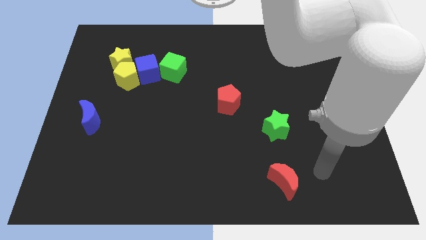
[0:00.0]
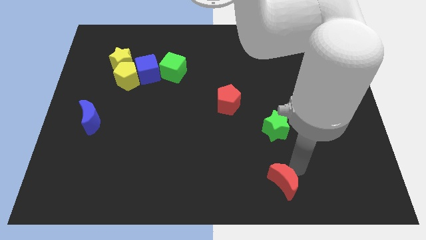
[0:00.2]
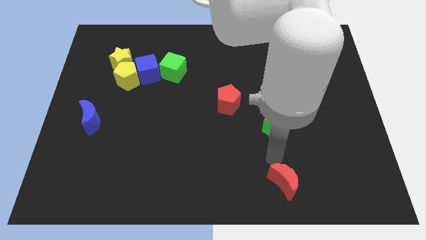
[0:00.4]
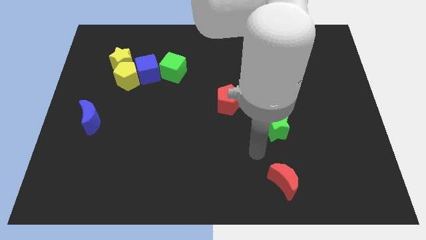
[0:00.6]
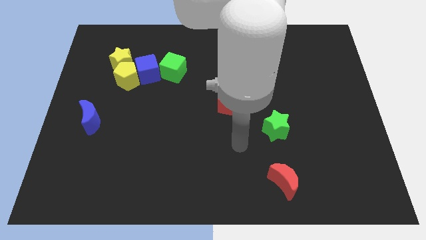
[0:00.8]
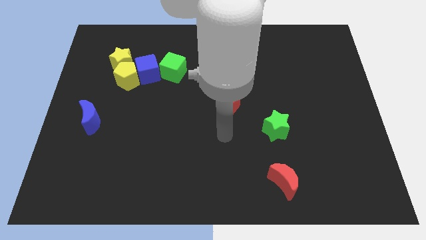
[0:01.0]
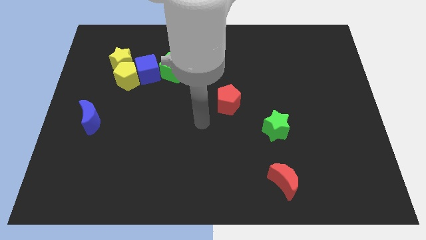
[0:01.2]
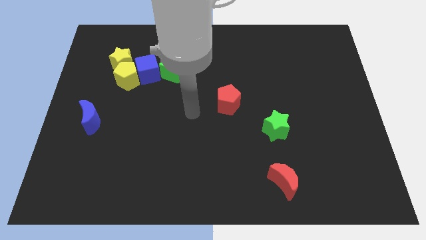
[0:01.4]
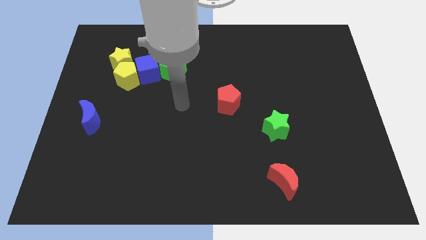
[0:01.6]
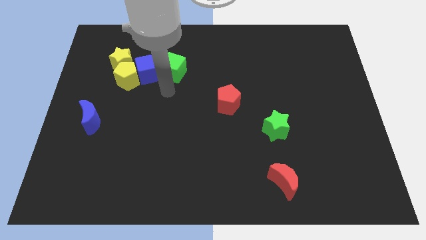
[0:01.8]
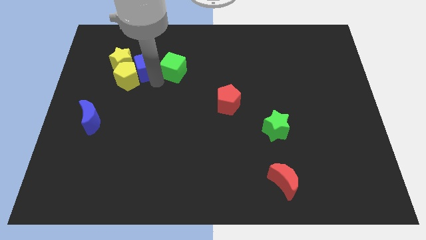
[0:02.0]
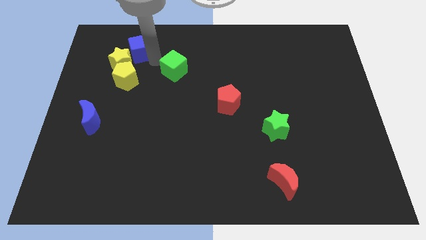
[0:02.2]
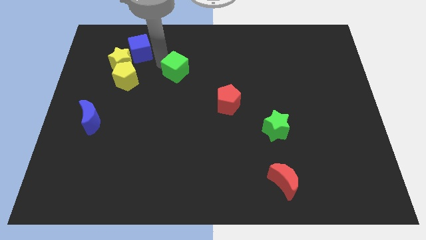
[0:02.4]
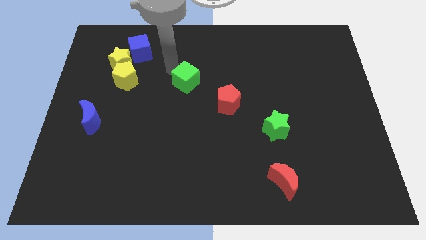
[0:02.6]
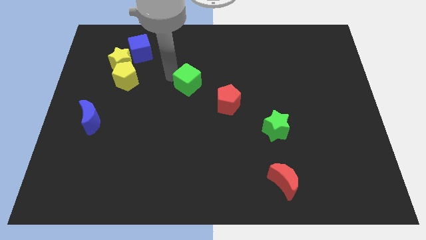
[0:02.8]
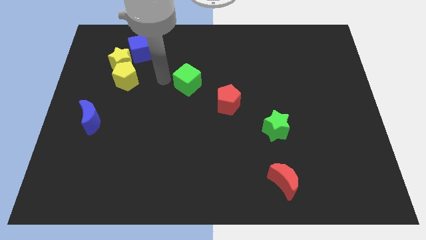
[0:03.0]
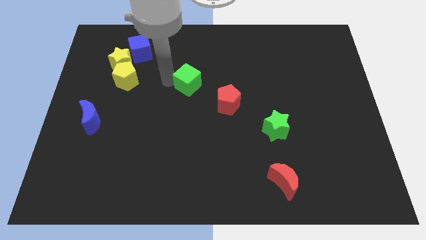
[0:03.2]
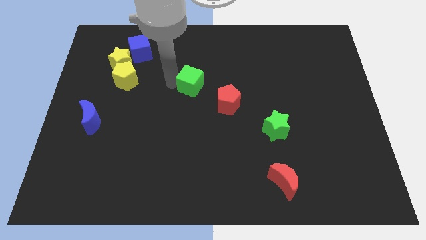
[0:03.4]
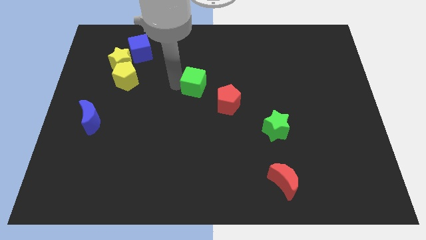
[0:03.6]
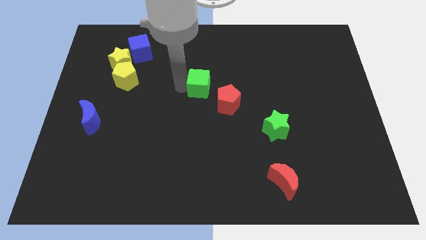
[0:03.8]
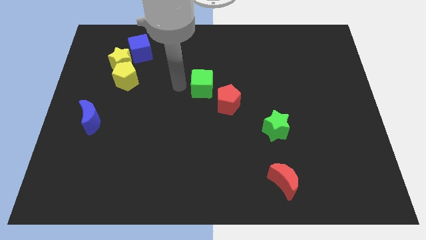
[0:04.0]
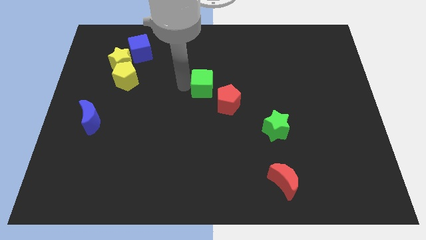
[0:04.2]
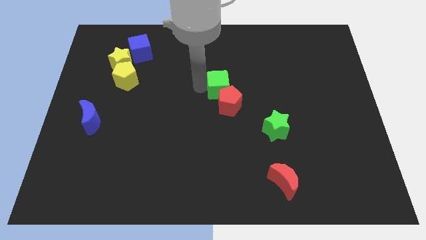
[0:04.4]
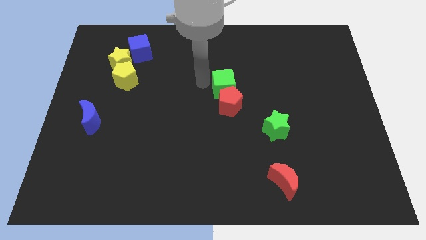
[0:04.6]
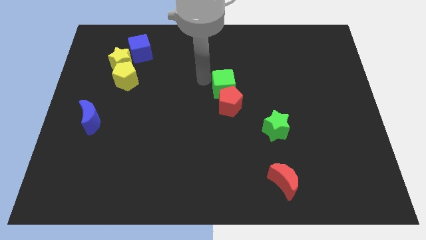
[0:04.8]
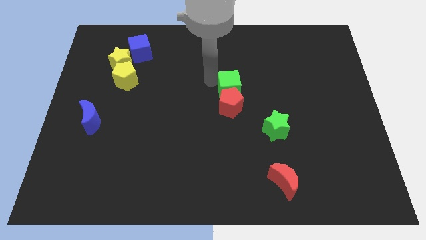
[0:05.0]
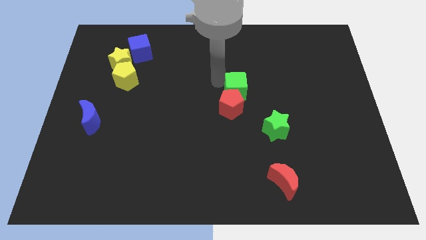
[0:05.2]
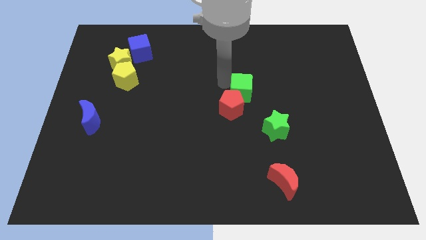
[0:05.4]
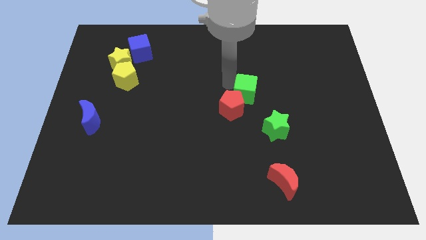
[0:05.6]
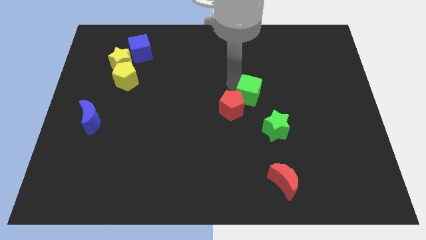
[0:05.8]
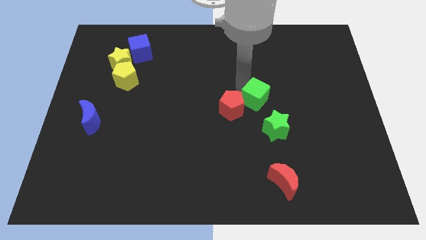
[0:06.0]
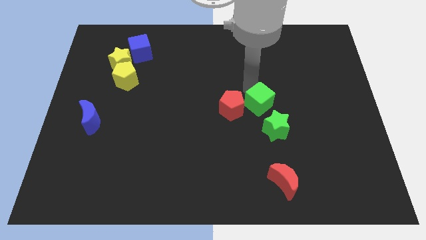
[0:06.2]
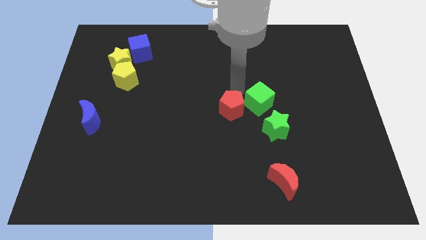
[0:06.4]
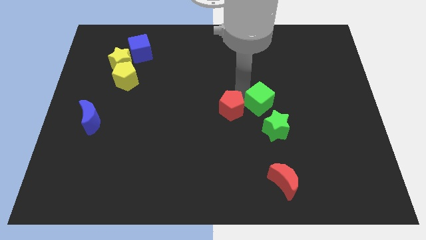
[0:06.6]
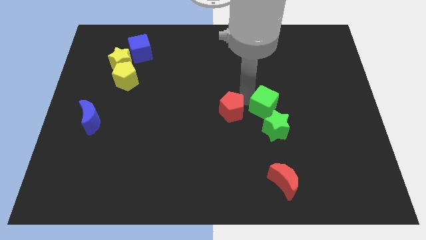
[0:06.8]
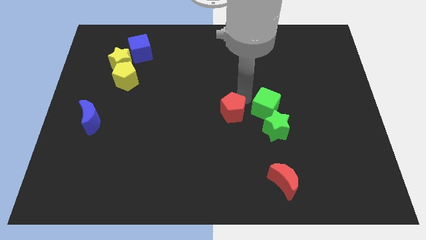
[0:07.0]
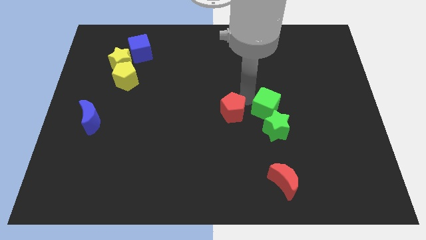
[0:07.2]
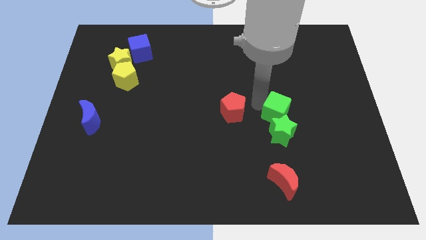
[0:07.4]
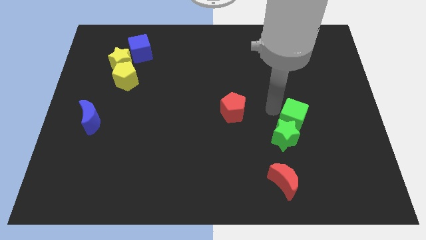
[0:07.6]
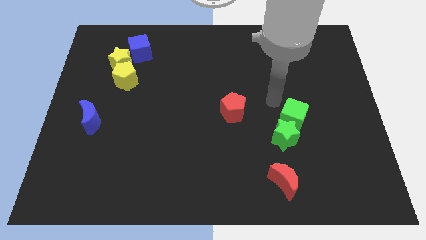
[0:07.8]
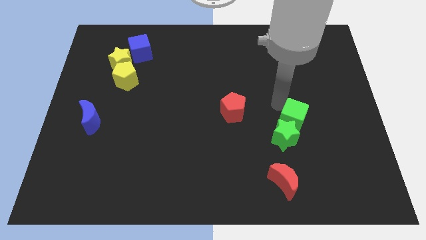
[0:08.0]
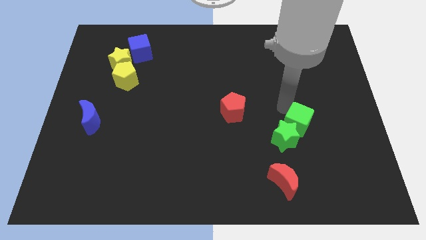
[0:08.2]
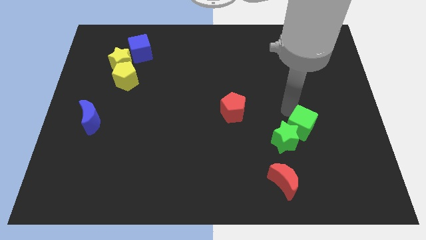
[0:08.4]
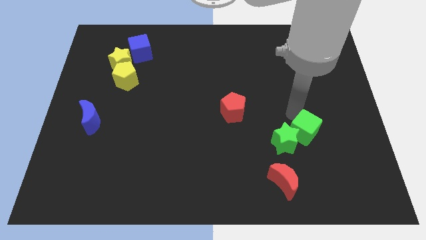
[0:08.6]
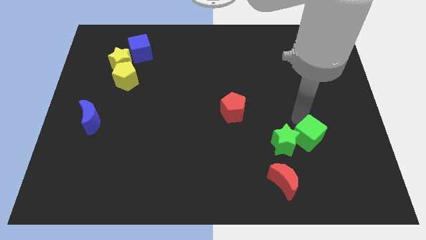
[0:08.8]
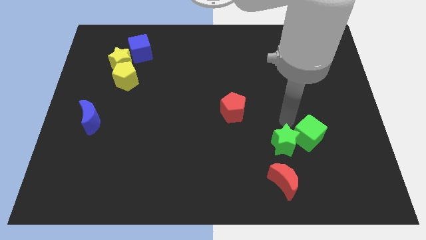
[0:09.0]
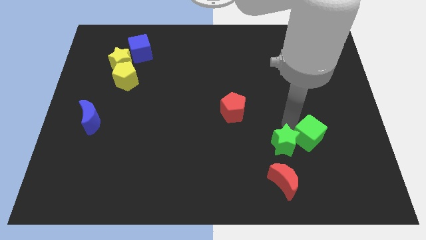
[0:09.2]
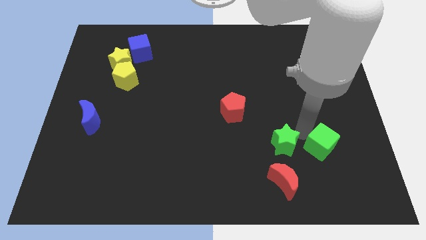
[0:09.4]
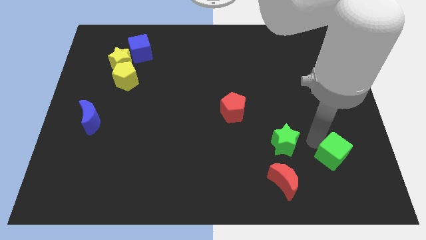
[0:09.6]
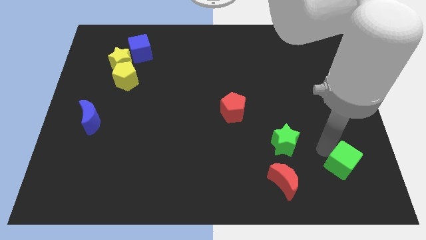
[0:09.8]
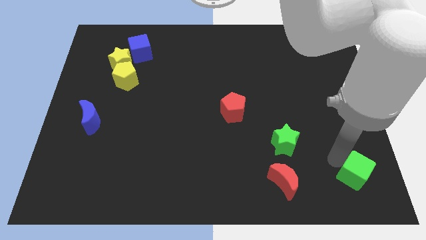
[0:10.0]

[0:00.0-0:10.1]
push the green cube to the lower right corner

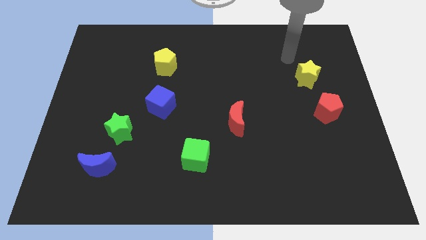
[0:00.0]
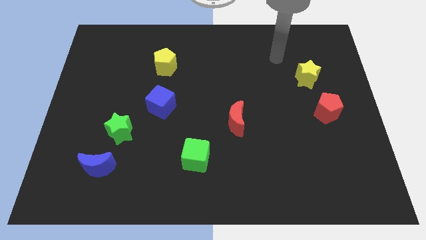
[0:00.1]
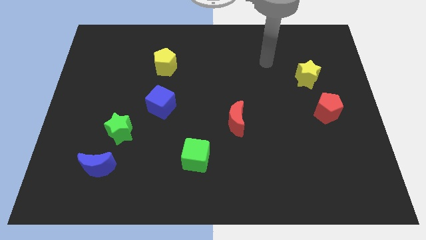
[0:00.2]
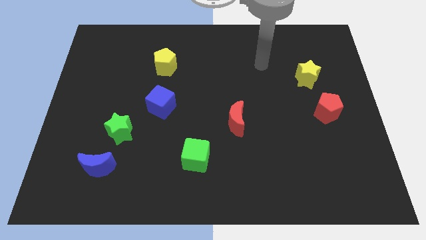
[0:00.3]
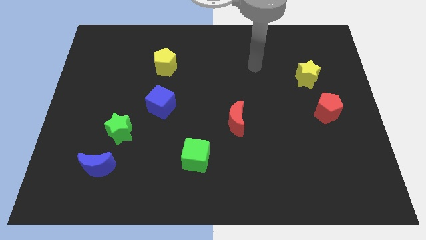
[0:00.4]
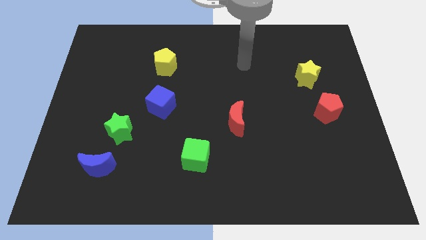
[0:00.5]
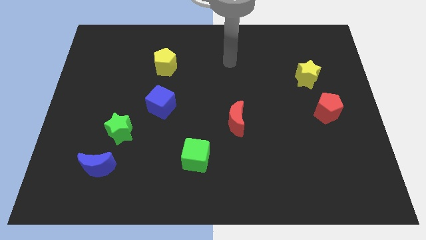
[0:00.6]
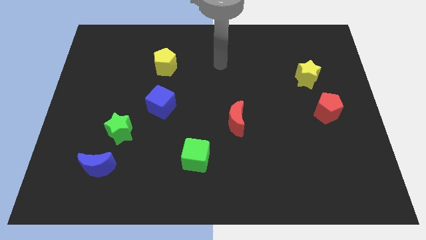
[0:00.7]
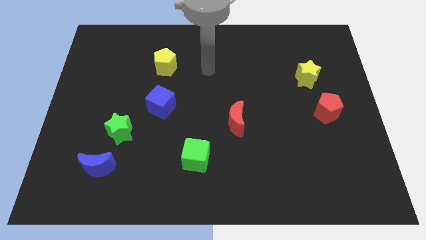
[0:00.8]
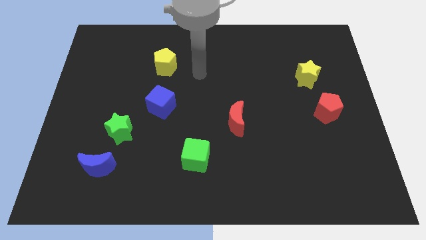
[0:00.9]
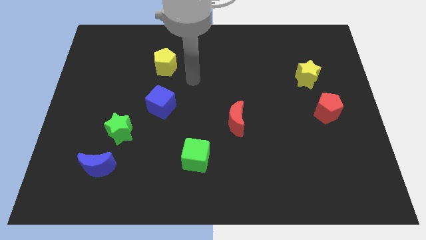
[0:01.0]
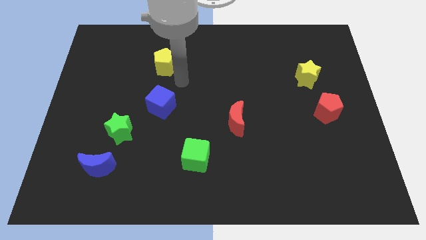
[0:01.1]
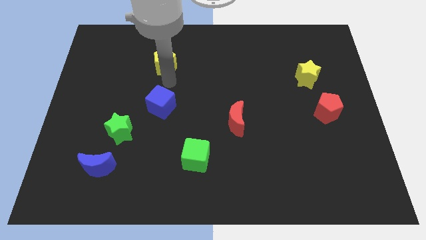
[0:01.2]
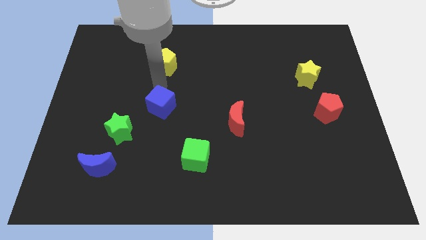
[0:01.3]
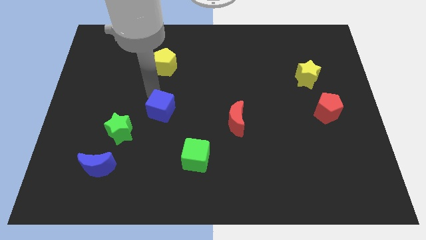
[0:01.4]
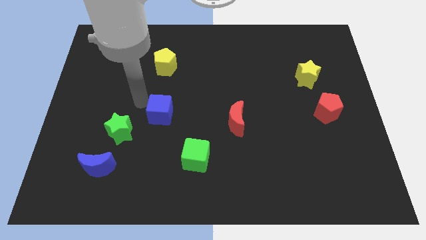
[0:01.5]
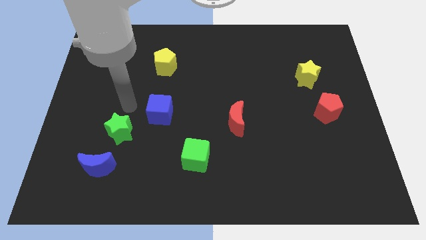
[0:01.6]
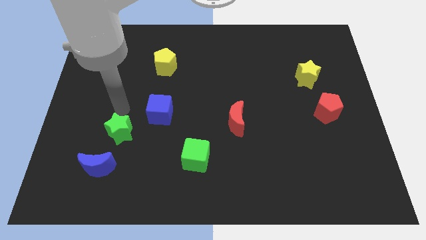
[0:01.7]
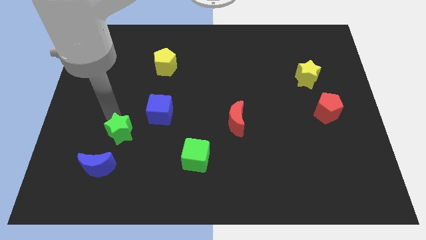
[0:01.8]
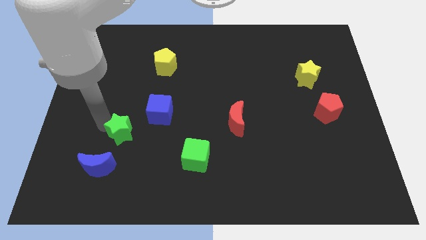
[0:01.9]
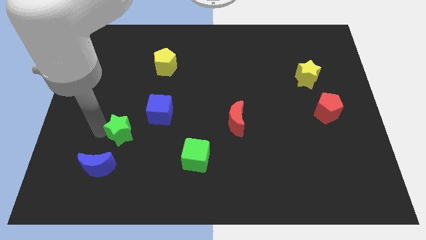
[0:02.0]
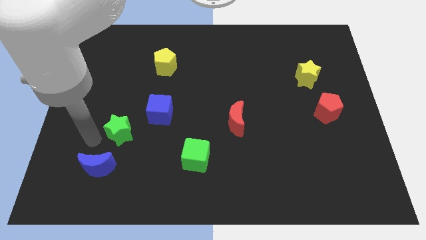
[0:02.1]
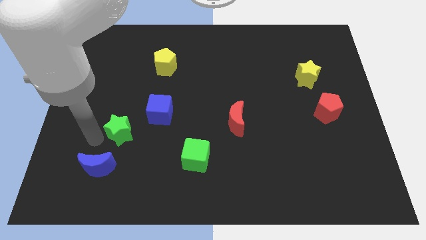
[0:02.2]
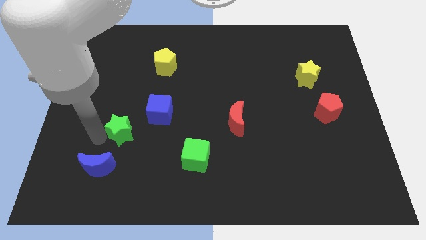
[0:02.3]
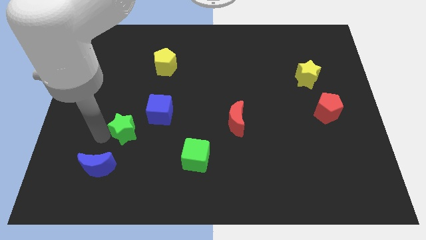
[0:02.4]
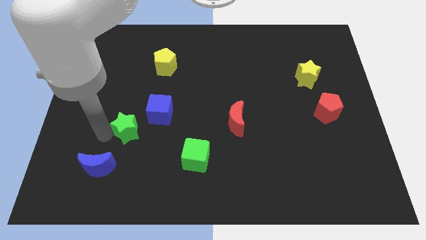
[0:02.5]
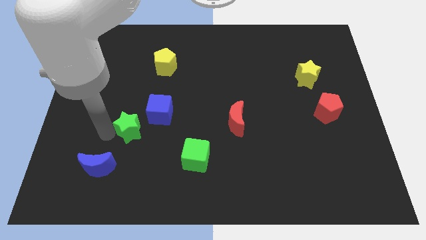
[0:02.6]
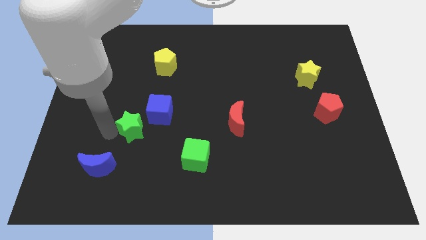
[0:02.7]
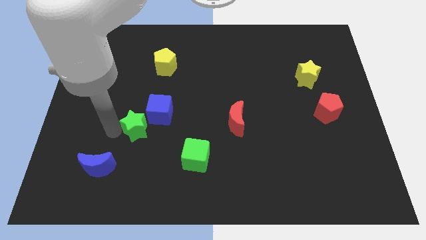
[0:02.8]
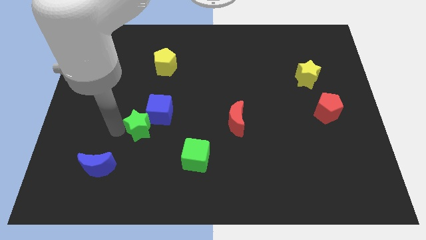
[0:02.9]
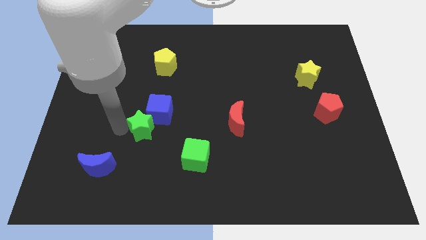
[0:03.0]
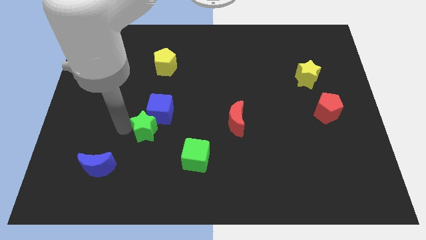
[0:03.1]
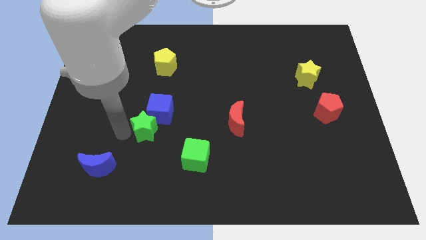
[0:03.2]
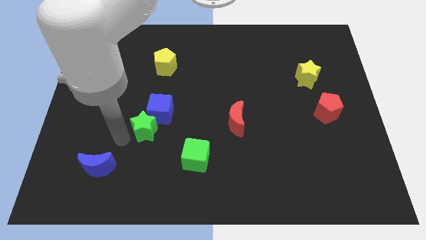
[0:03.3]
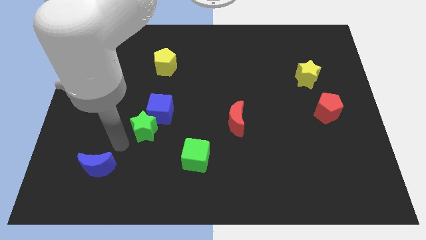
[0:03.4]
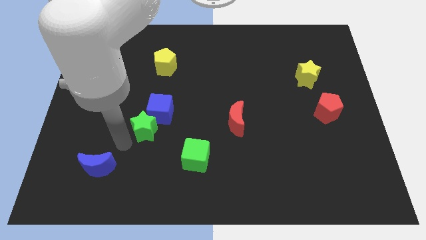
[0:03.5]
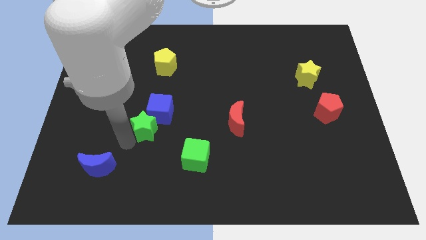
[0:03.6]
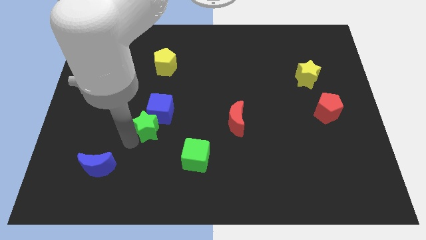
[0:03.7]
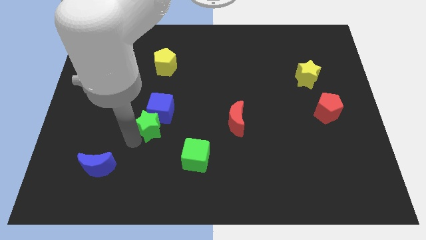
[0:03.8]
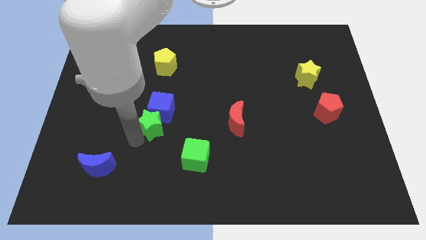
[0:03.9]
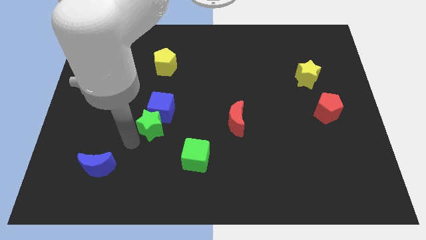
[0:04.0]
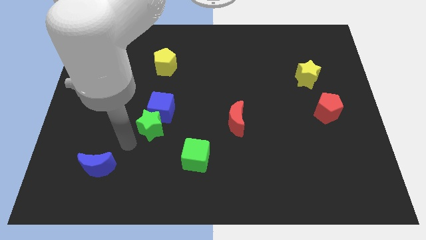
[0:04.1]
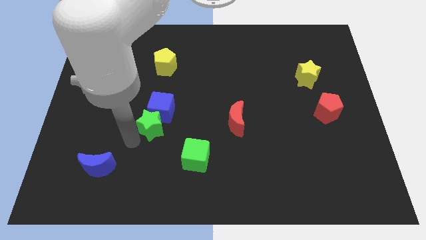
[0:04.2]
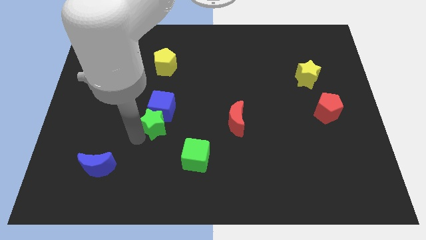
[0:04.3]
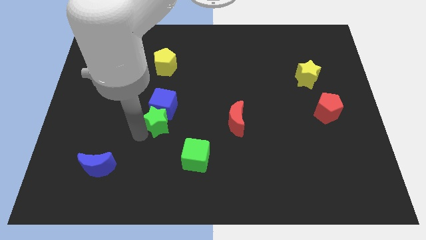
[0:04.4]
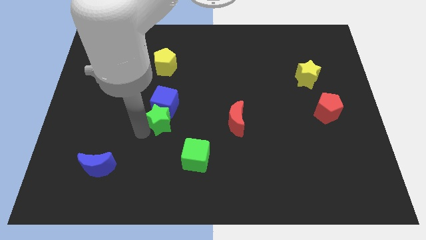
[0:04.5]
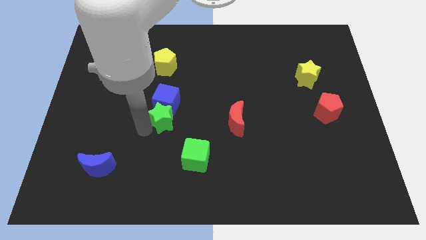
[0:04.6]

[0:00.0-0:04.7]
slide the green star to the middle
